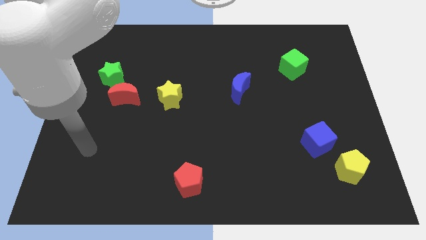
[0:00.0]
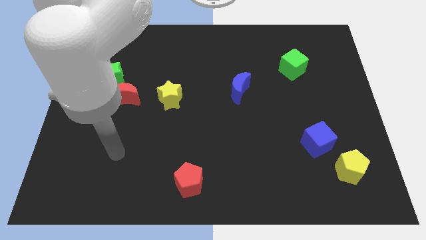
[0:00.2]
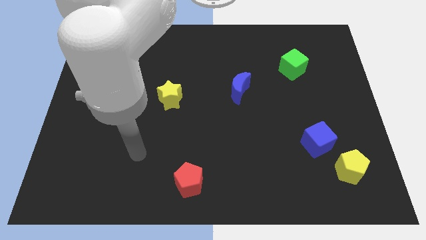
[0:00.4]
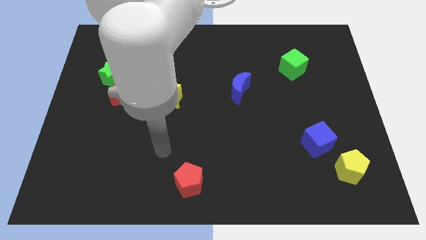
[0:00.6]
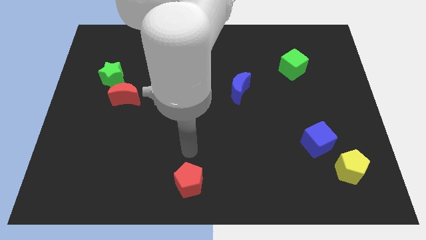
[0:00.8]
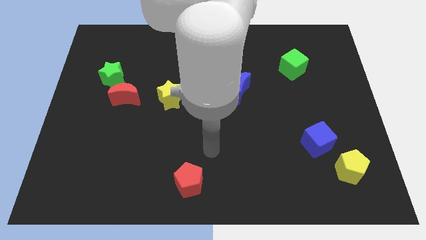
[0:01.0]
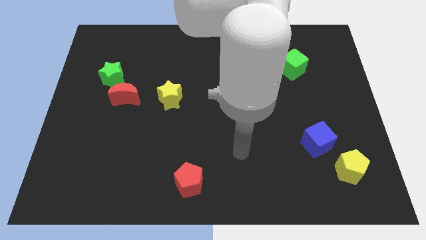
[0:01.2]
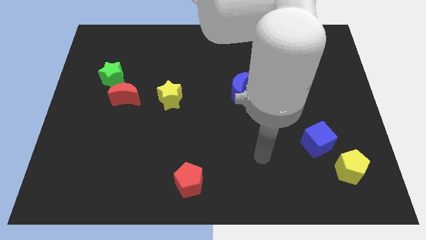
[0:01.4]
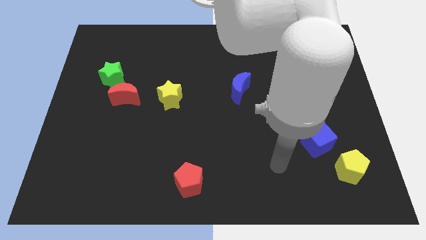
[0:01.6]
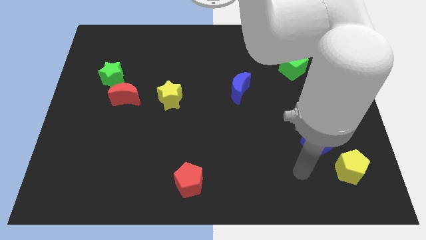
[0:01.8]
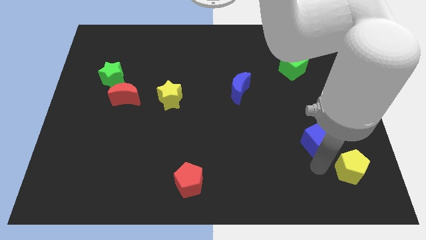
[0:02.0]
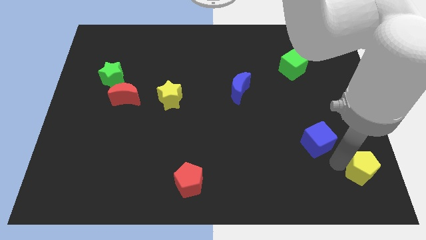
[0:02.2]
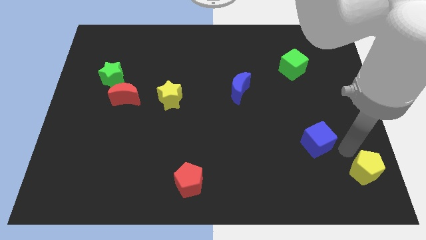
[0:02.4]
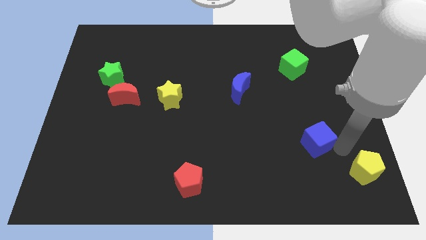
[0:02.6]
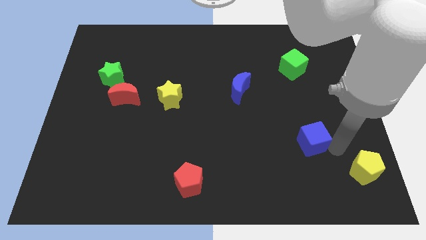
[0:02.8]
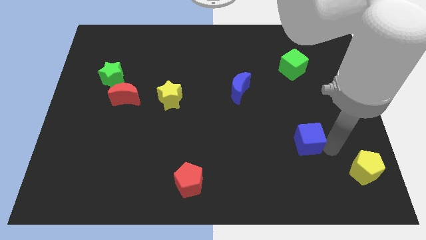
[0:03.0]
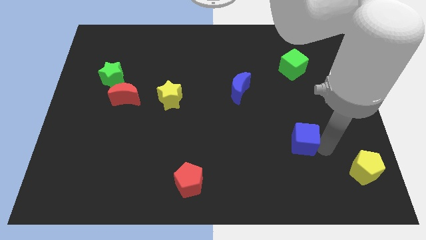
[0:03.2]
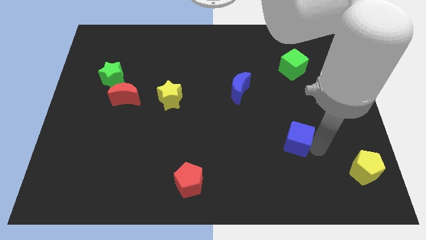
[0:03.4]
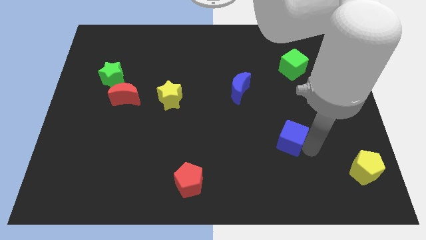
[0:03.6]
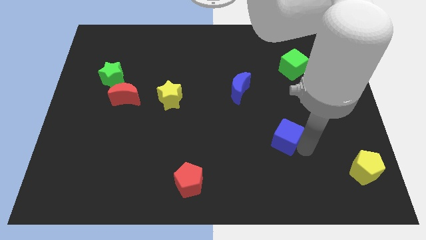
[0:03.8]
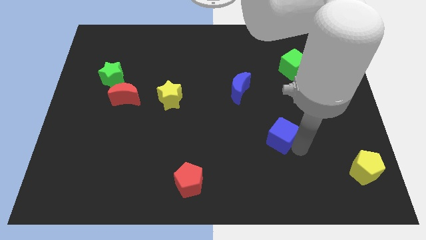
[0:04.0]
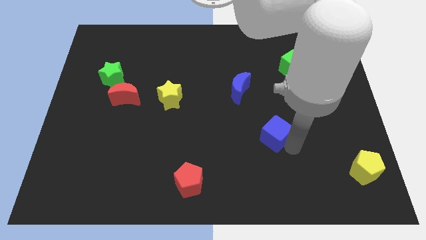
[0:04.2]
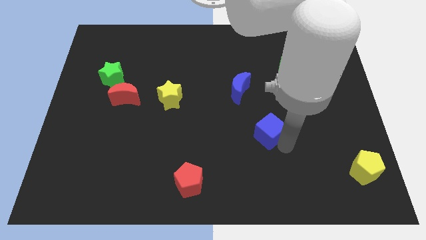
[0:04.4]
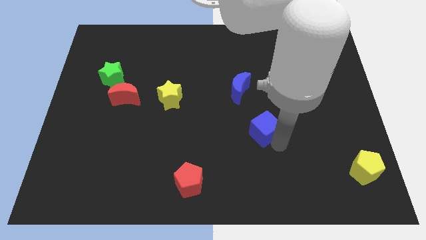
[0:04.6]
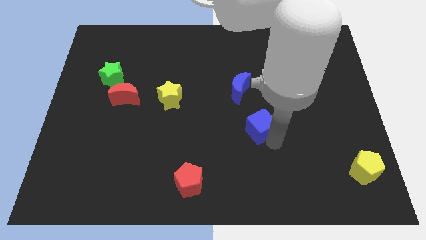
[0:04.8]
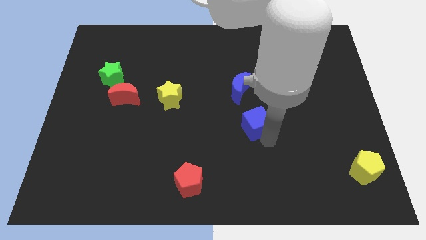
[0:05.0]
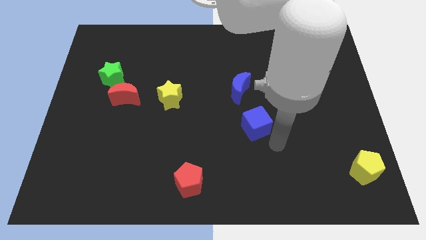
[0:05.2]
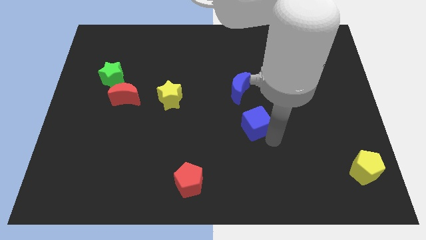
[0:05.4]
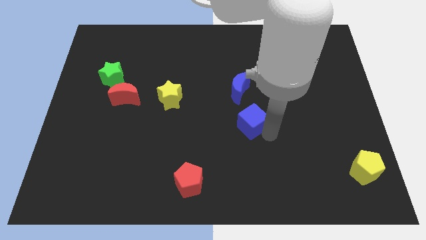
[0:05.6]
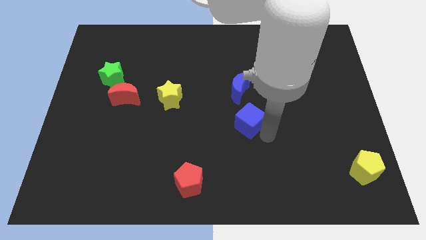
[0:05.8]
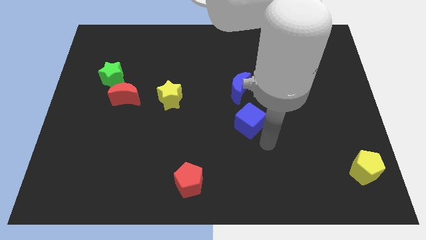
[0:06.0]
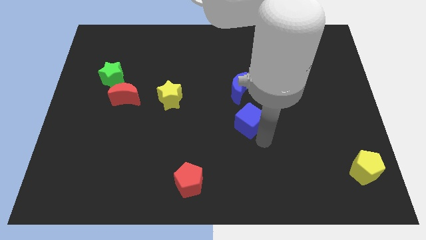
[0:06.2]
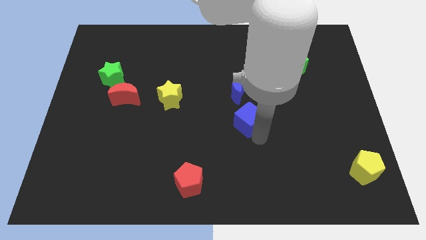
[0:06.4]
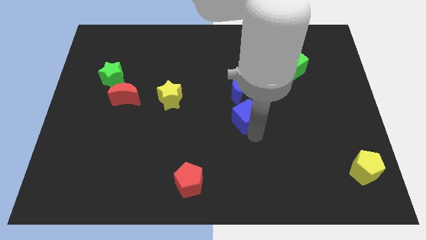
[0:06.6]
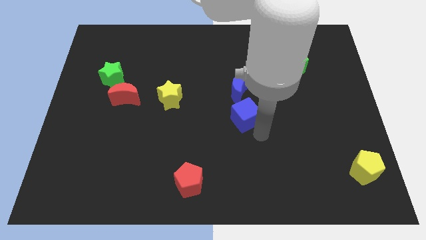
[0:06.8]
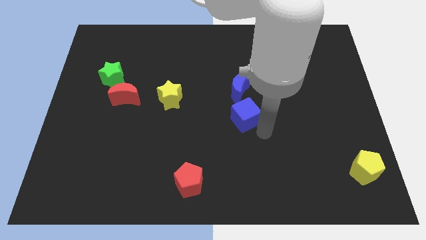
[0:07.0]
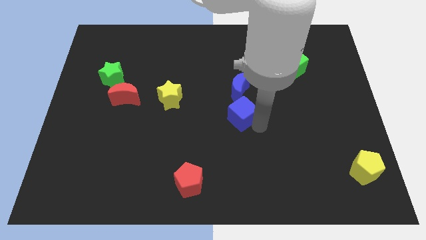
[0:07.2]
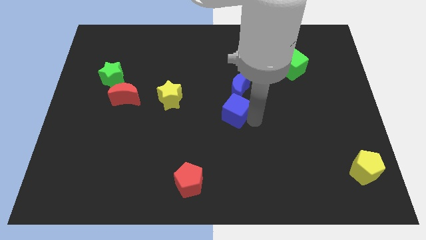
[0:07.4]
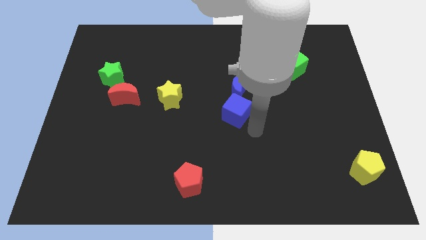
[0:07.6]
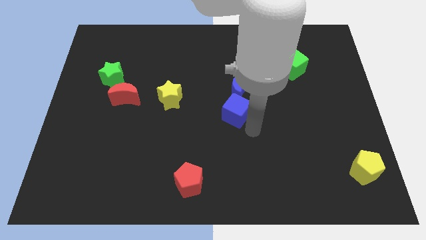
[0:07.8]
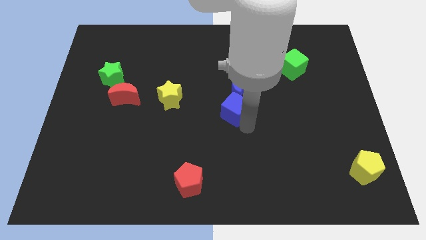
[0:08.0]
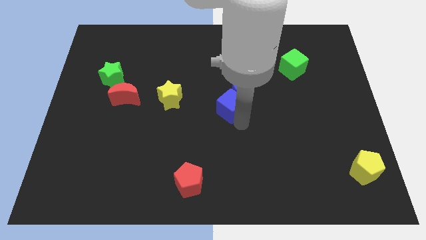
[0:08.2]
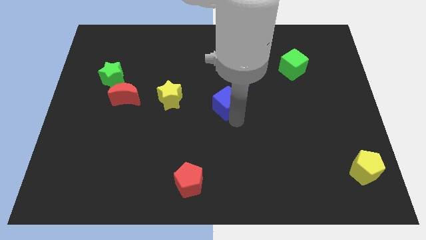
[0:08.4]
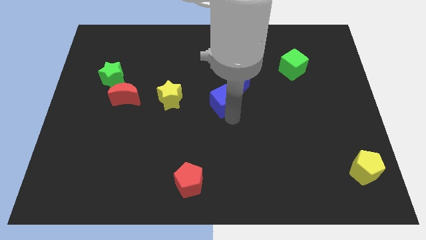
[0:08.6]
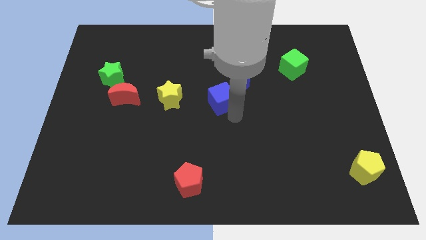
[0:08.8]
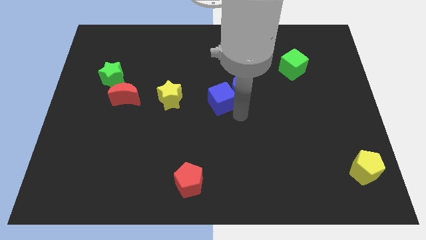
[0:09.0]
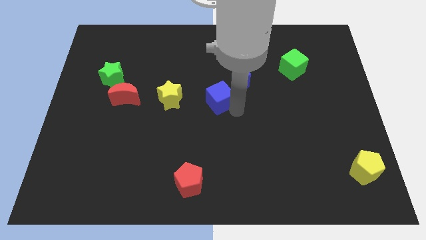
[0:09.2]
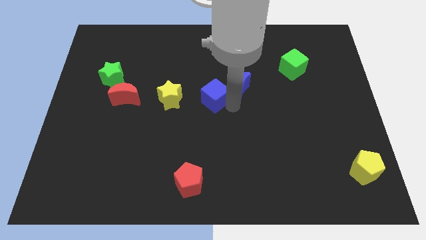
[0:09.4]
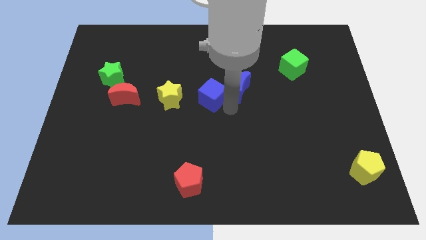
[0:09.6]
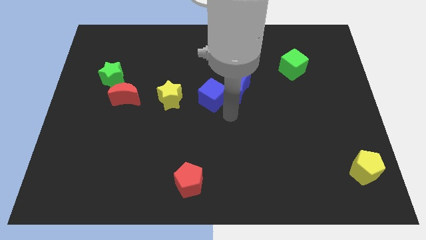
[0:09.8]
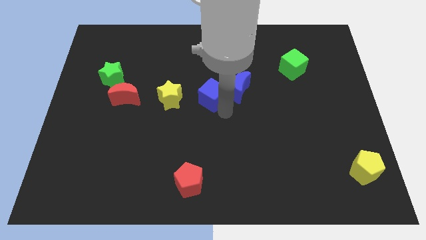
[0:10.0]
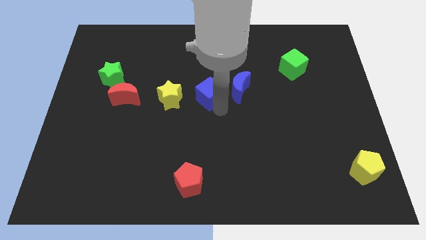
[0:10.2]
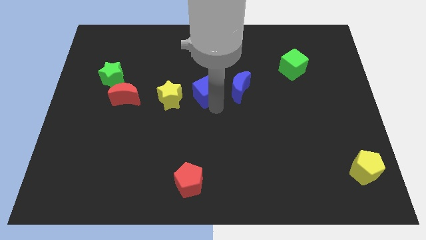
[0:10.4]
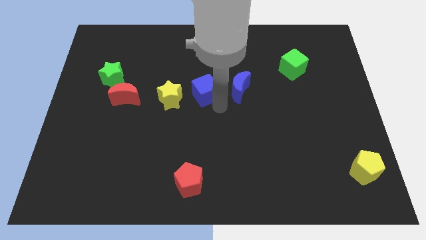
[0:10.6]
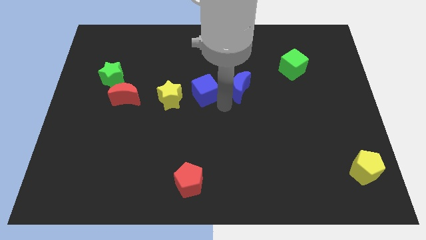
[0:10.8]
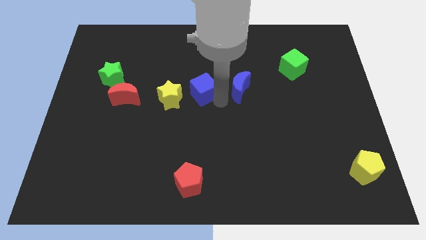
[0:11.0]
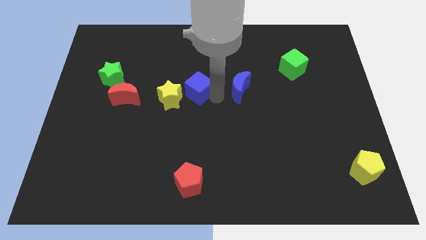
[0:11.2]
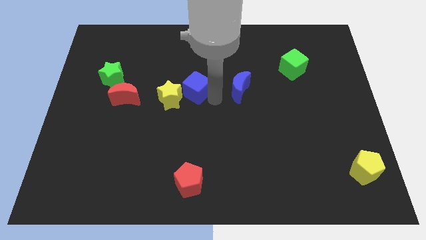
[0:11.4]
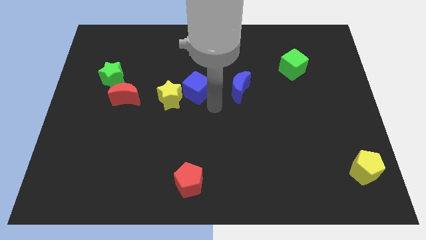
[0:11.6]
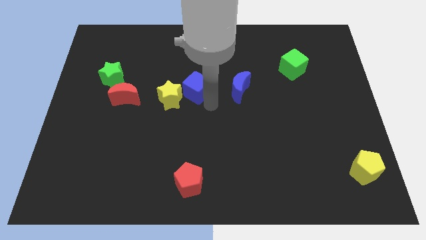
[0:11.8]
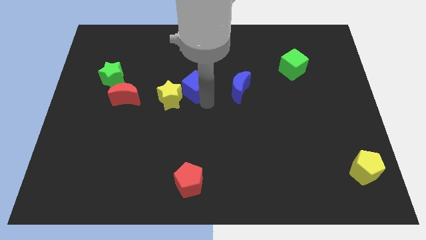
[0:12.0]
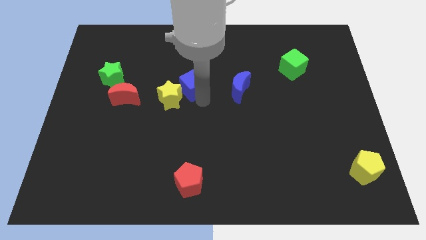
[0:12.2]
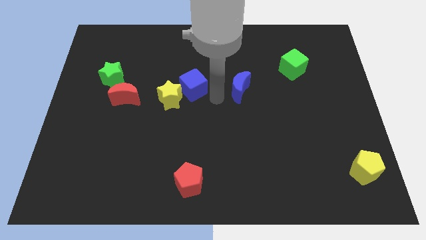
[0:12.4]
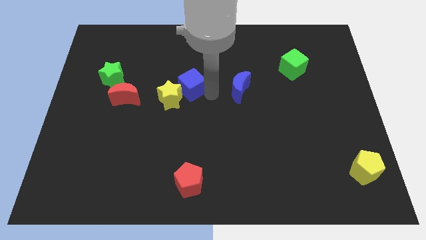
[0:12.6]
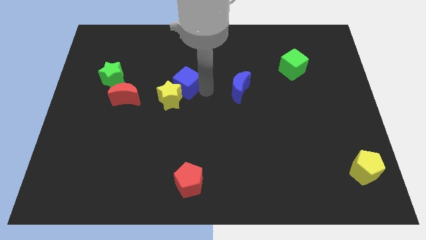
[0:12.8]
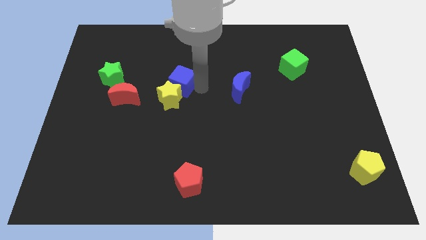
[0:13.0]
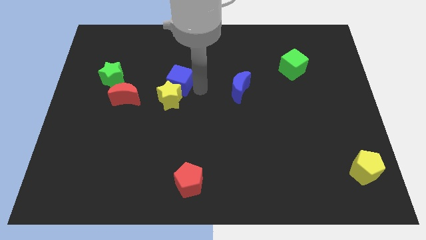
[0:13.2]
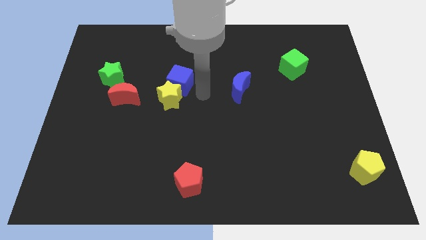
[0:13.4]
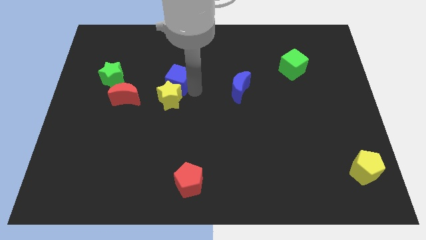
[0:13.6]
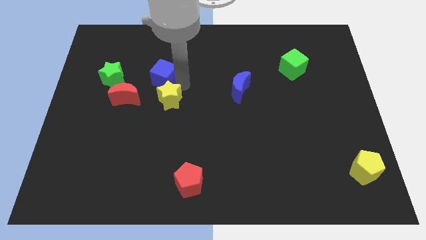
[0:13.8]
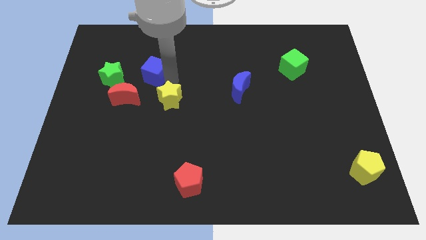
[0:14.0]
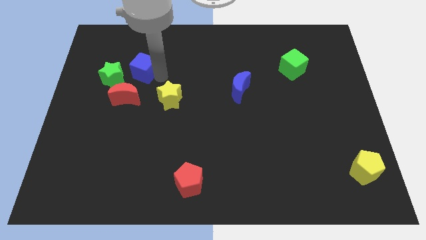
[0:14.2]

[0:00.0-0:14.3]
put the blue cube to the top side of the red moon
